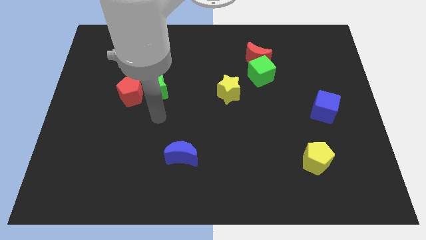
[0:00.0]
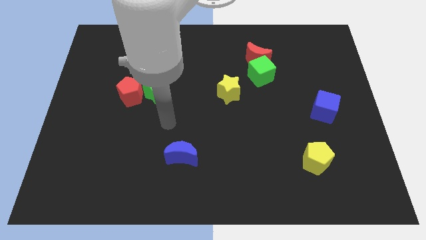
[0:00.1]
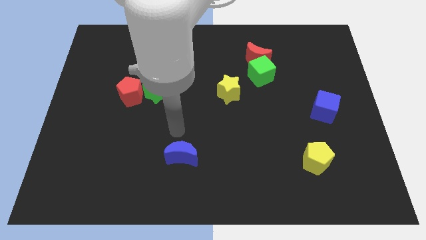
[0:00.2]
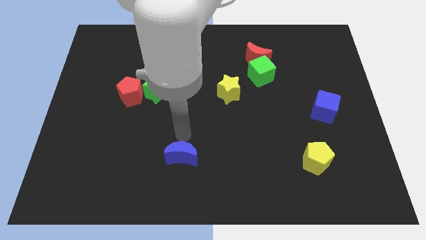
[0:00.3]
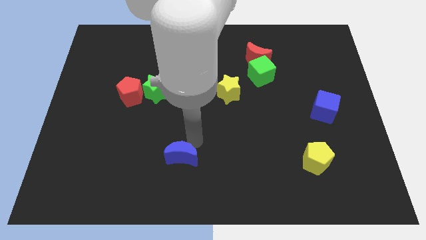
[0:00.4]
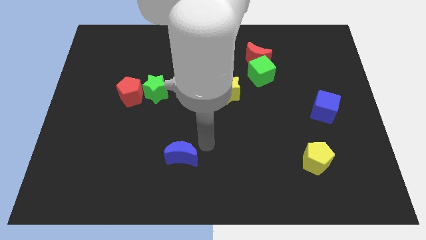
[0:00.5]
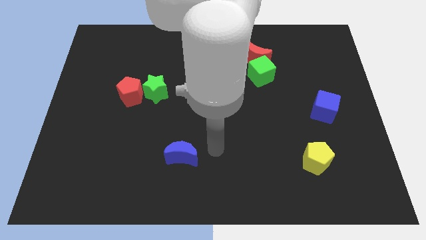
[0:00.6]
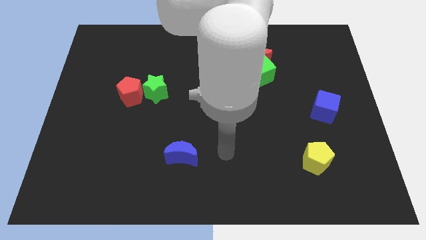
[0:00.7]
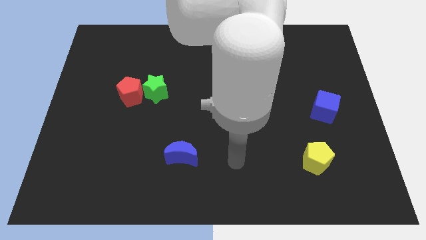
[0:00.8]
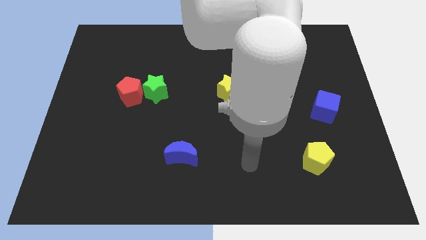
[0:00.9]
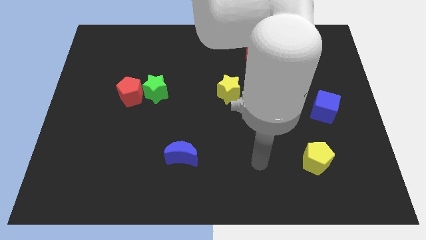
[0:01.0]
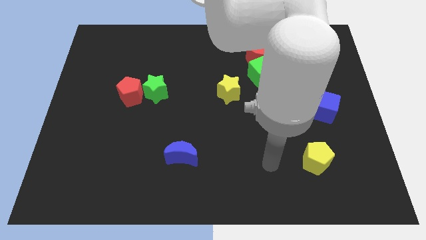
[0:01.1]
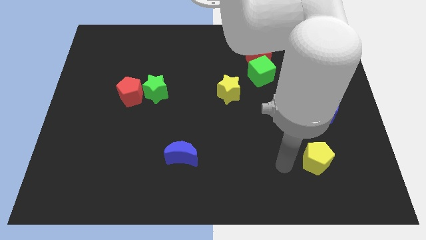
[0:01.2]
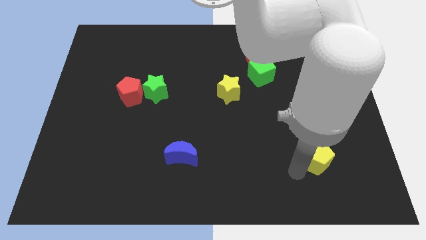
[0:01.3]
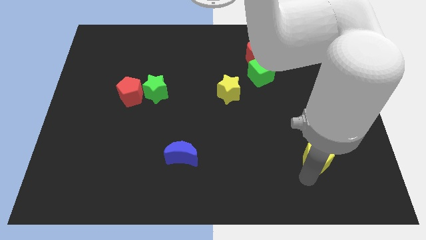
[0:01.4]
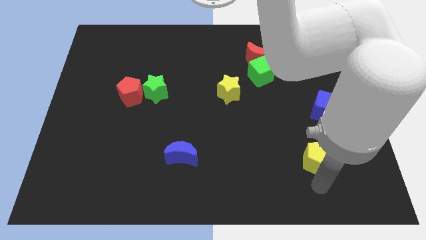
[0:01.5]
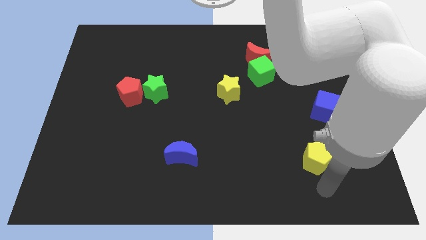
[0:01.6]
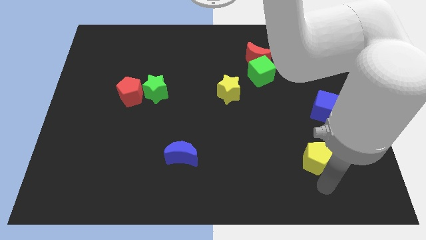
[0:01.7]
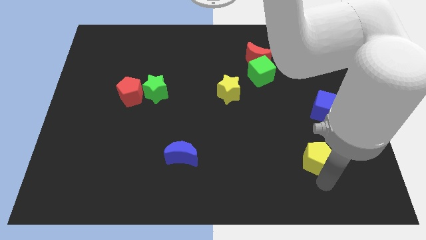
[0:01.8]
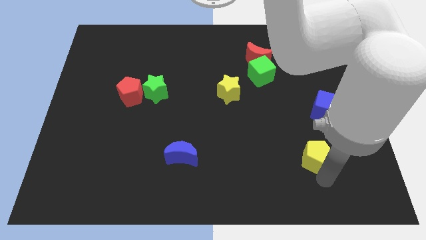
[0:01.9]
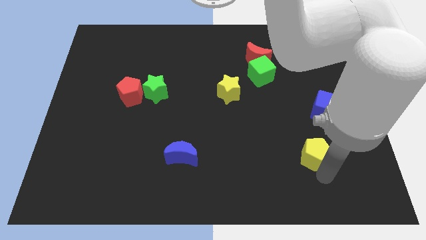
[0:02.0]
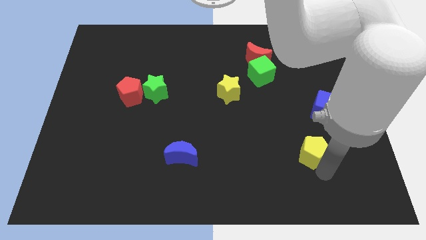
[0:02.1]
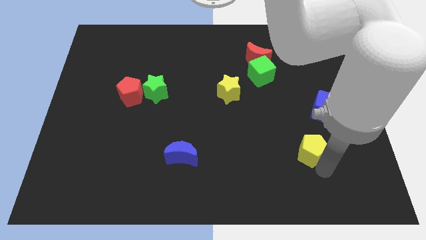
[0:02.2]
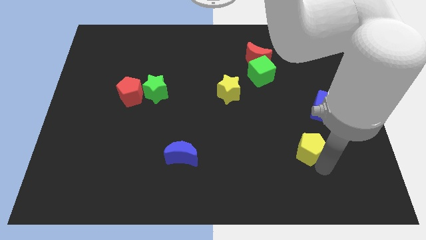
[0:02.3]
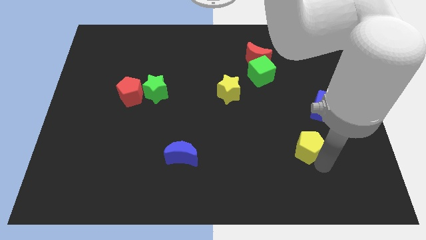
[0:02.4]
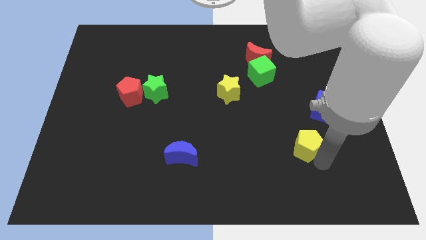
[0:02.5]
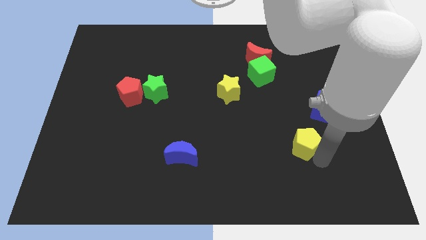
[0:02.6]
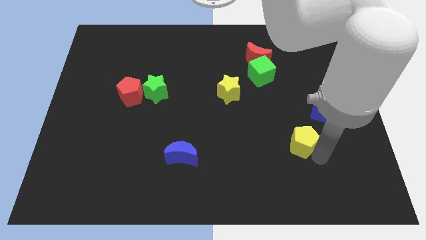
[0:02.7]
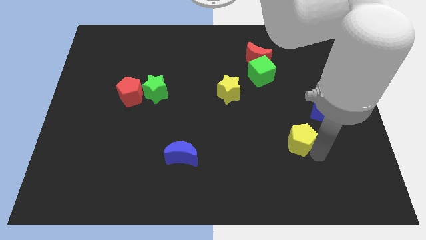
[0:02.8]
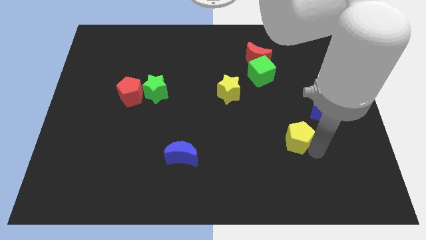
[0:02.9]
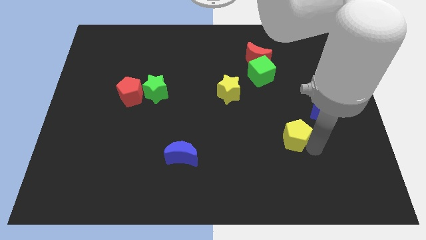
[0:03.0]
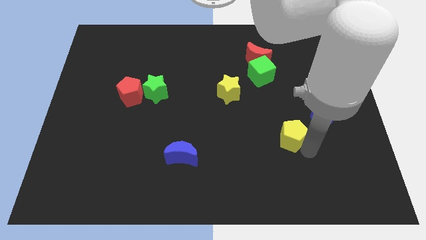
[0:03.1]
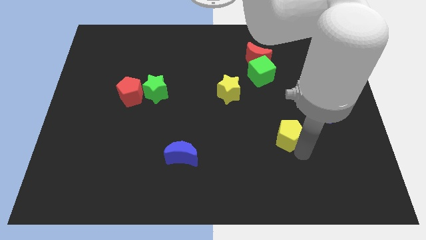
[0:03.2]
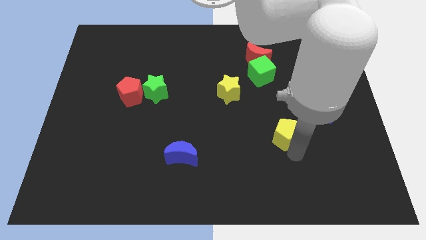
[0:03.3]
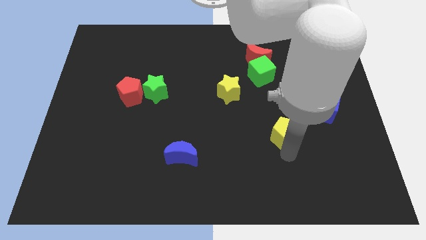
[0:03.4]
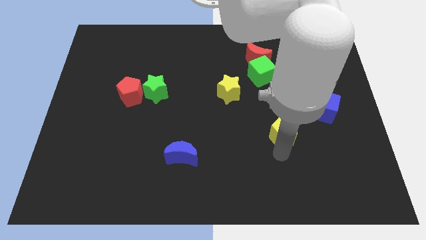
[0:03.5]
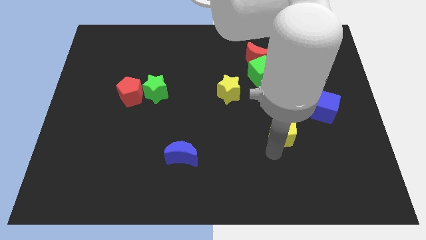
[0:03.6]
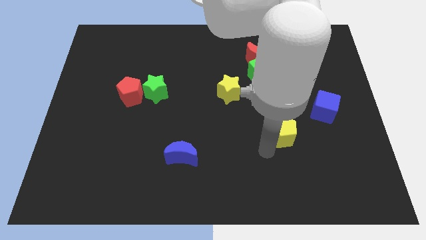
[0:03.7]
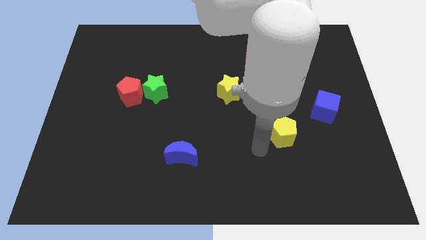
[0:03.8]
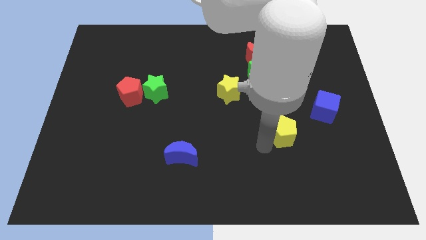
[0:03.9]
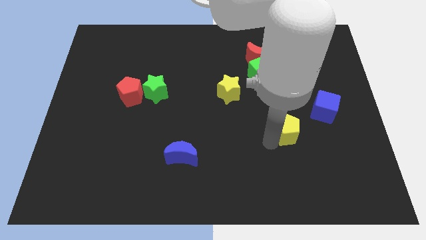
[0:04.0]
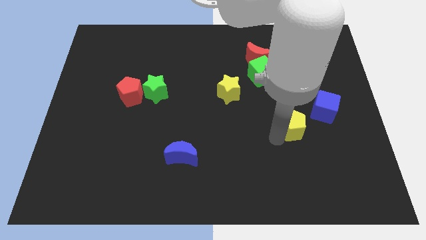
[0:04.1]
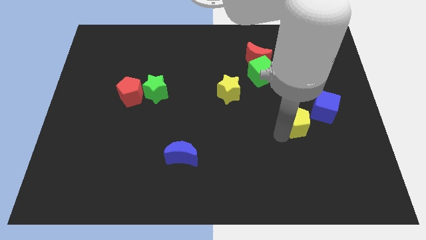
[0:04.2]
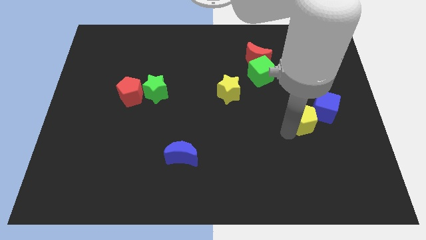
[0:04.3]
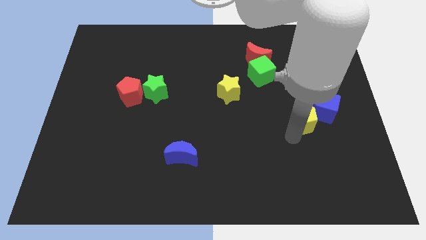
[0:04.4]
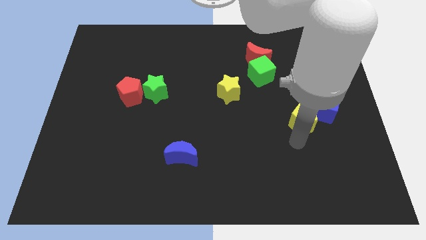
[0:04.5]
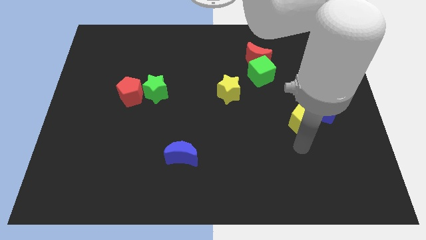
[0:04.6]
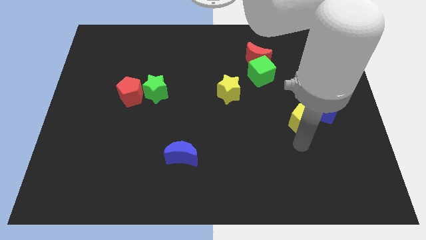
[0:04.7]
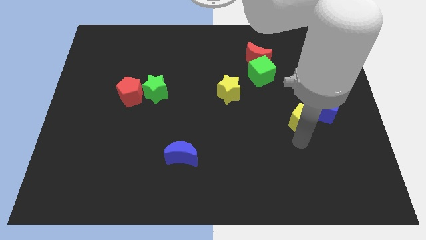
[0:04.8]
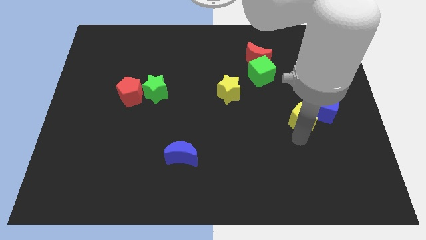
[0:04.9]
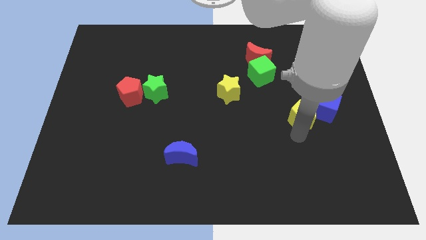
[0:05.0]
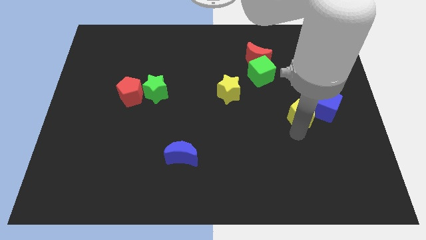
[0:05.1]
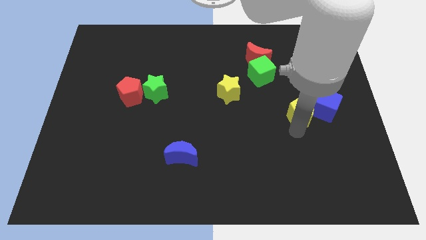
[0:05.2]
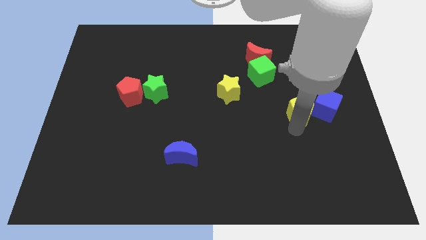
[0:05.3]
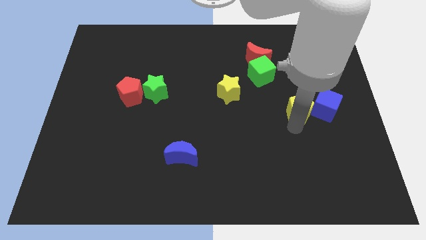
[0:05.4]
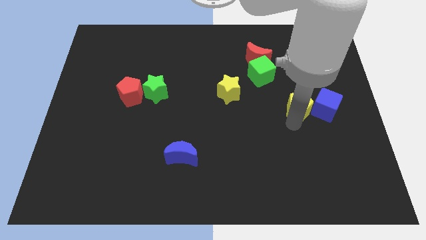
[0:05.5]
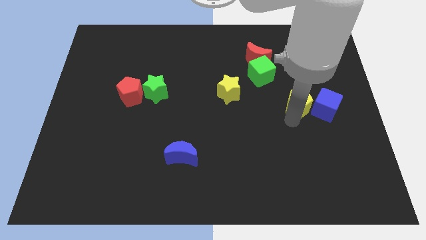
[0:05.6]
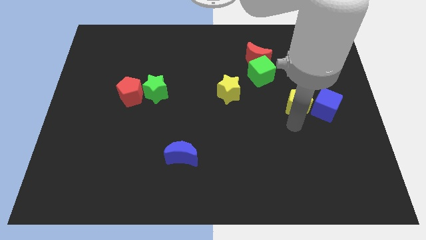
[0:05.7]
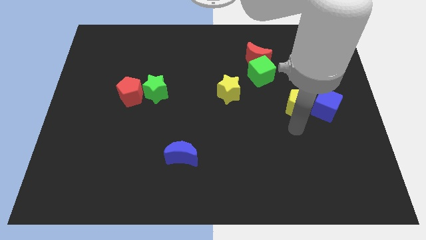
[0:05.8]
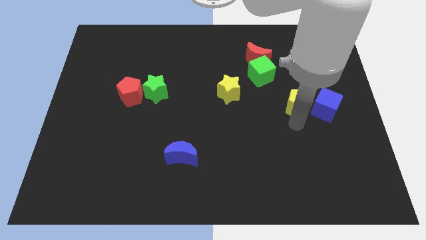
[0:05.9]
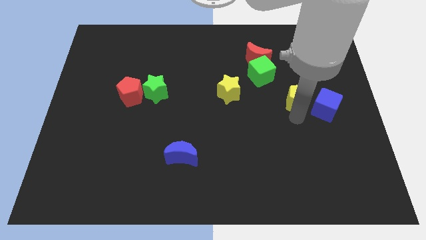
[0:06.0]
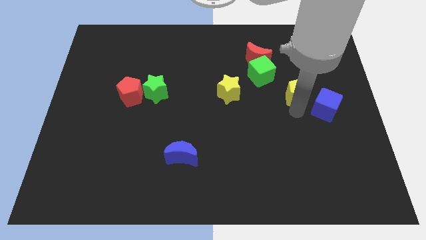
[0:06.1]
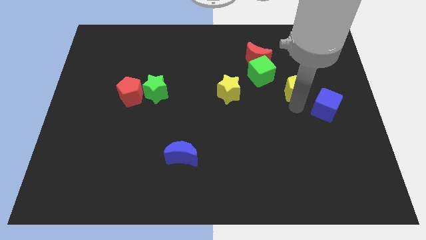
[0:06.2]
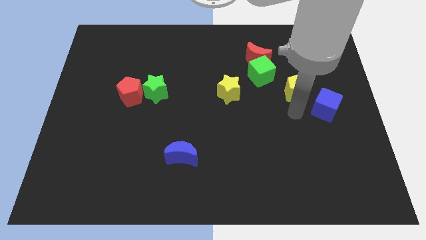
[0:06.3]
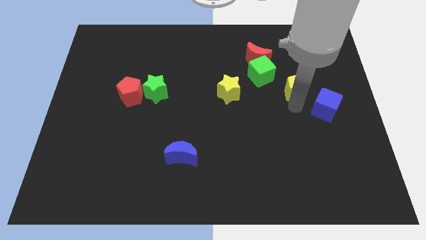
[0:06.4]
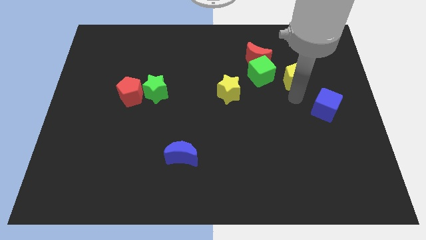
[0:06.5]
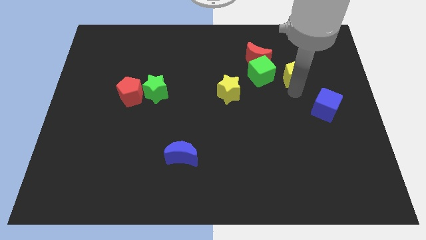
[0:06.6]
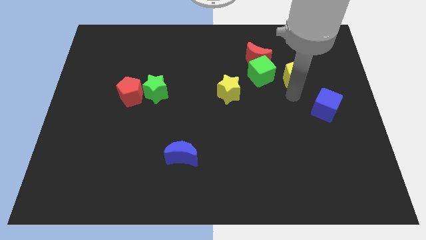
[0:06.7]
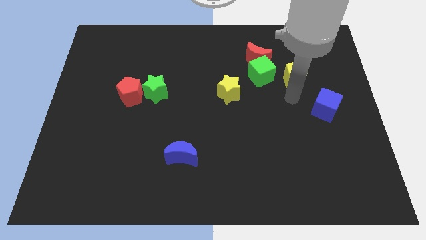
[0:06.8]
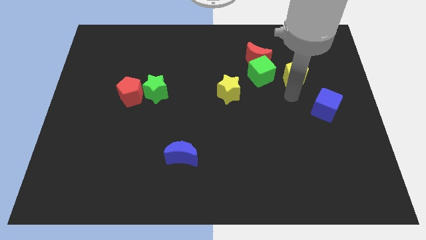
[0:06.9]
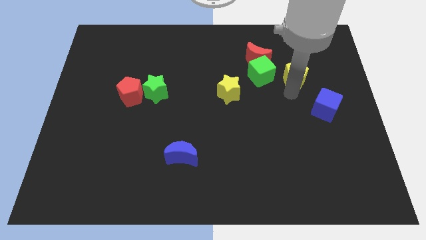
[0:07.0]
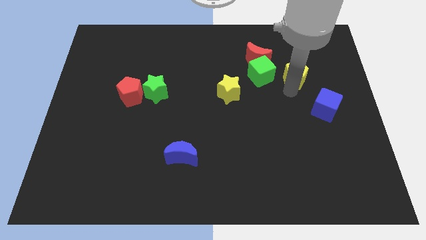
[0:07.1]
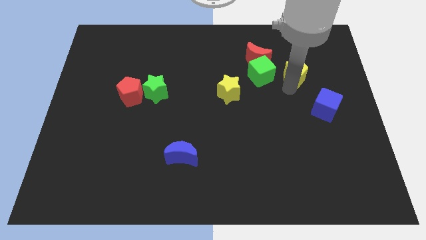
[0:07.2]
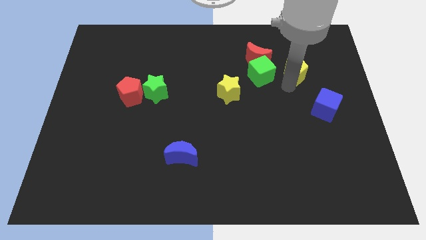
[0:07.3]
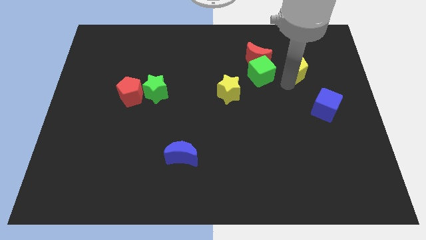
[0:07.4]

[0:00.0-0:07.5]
put the yellow pentagon to the right side of the red moon
